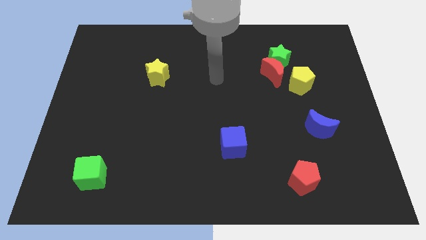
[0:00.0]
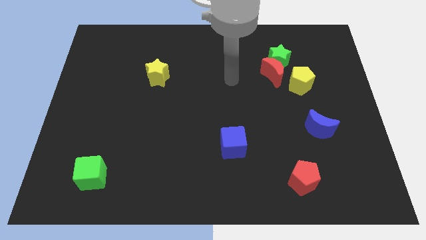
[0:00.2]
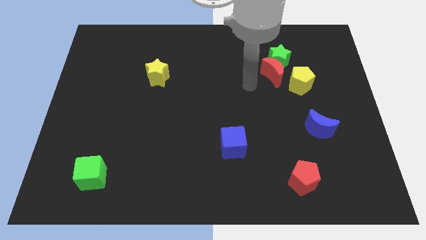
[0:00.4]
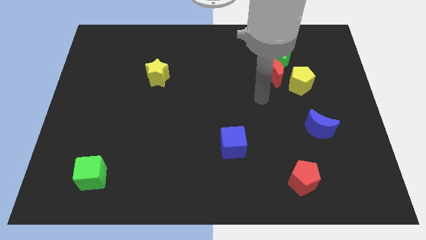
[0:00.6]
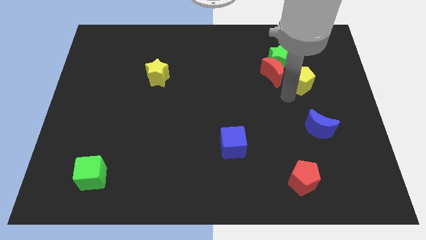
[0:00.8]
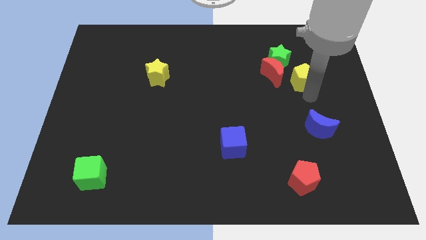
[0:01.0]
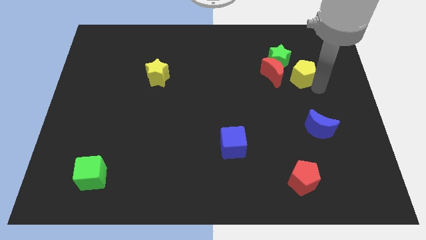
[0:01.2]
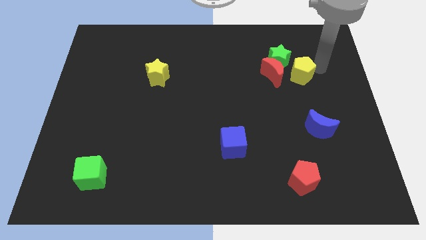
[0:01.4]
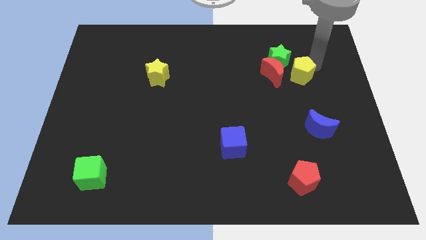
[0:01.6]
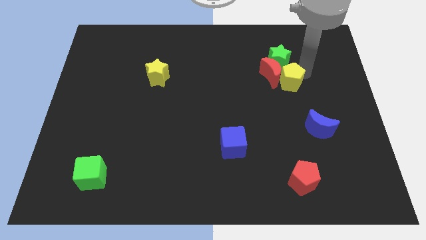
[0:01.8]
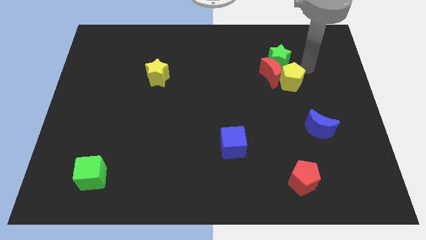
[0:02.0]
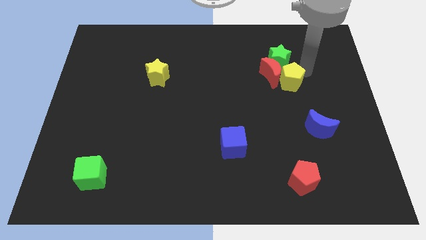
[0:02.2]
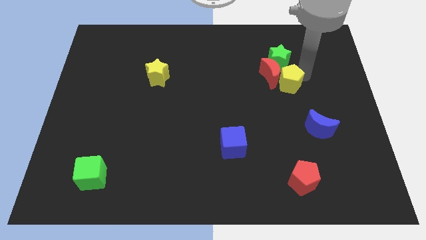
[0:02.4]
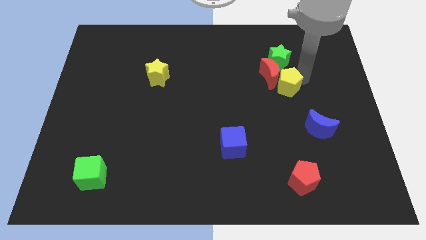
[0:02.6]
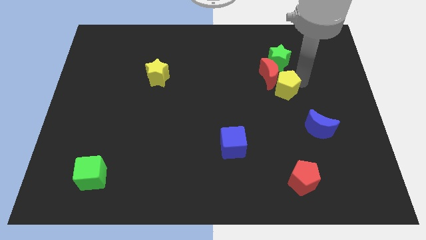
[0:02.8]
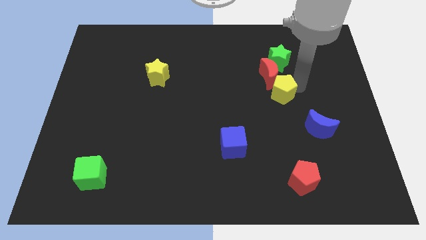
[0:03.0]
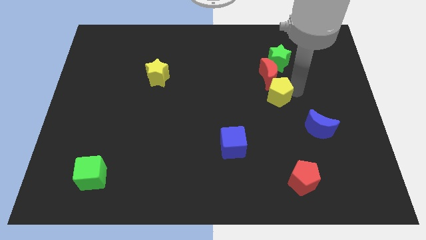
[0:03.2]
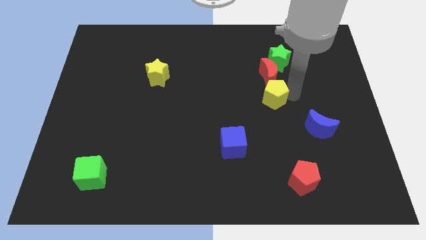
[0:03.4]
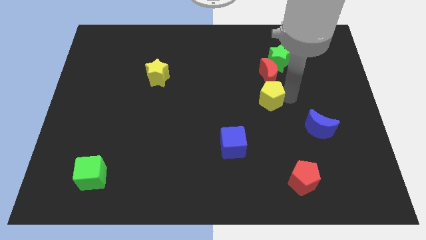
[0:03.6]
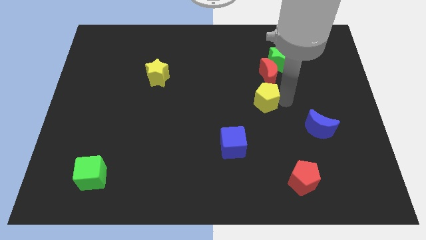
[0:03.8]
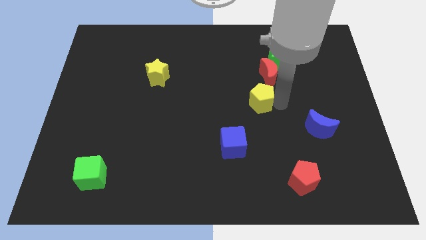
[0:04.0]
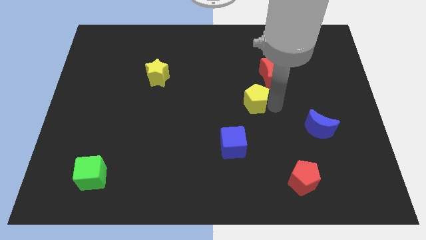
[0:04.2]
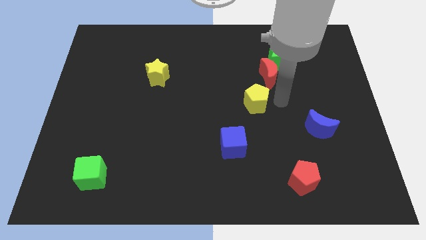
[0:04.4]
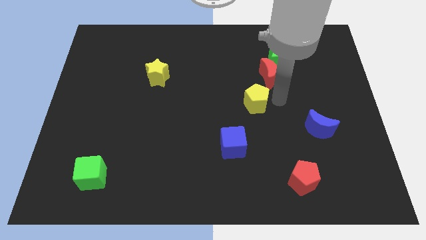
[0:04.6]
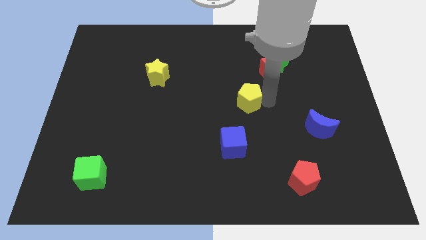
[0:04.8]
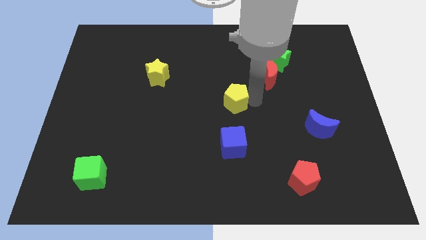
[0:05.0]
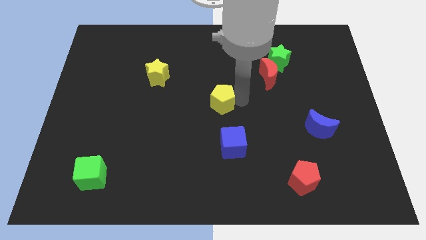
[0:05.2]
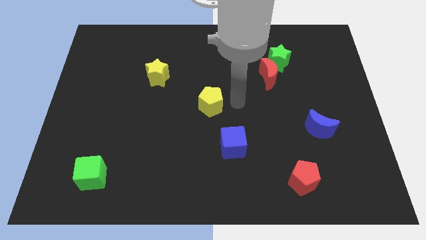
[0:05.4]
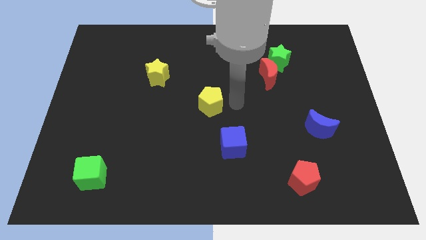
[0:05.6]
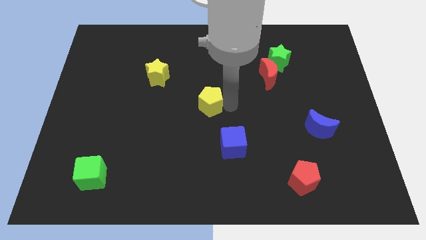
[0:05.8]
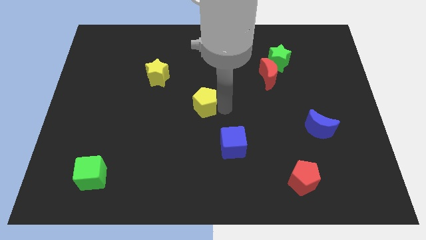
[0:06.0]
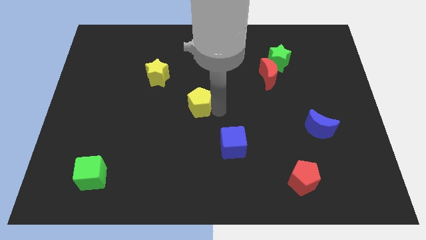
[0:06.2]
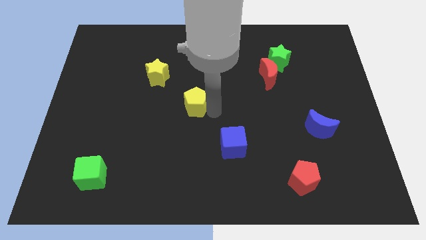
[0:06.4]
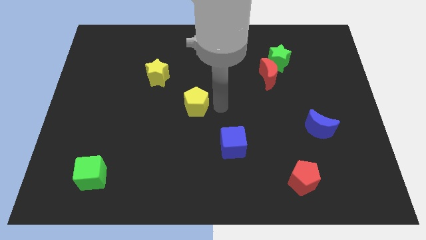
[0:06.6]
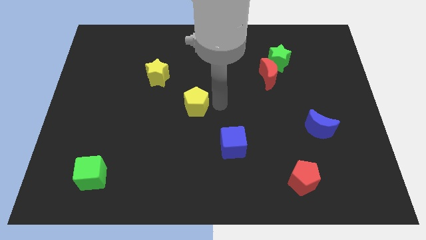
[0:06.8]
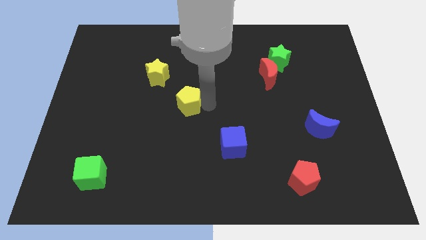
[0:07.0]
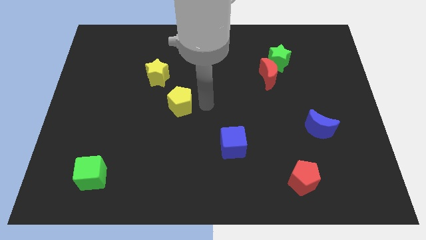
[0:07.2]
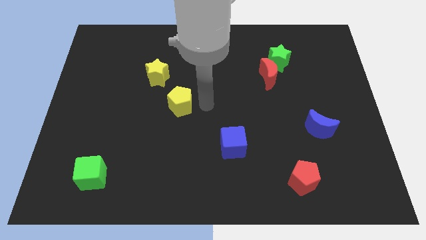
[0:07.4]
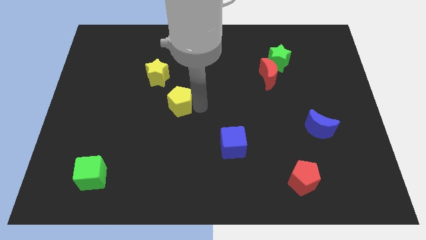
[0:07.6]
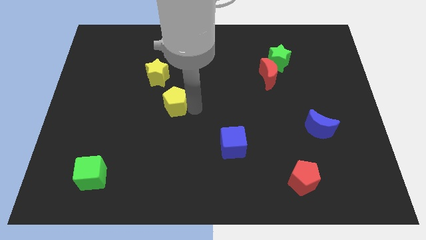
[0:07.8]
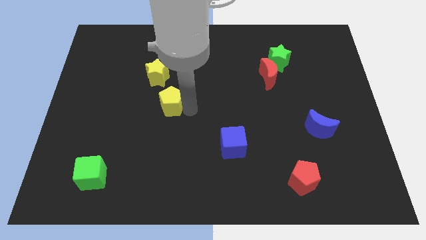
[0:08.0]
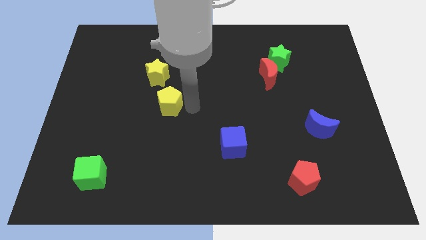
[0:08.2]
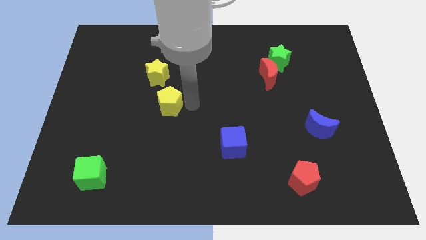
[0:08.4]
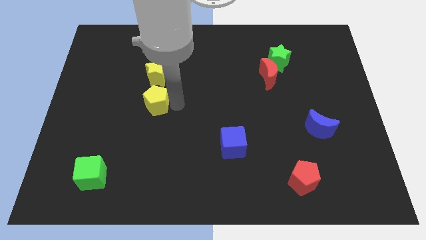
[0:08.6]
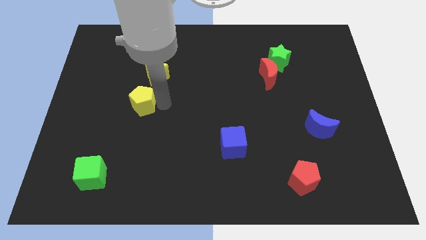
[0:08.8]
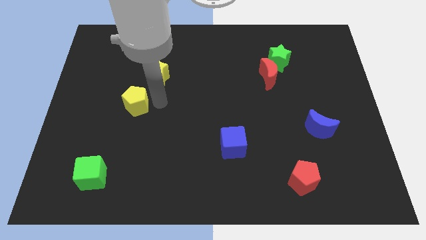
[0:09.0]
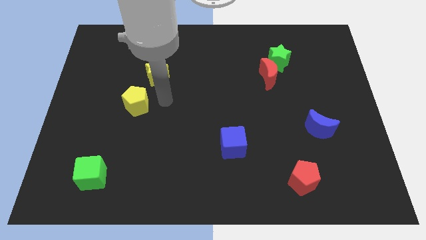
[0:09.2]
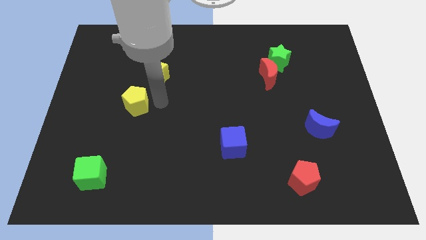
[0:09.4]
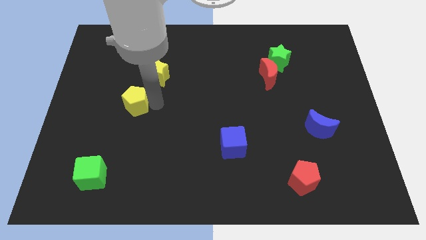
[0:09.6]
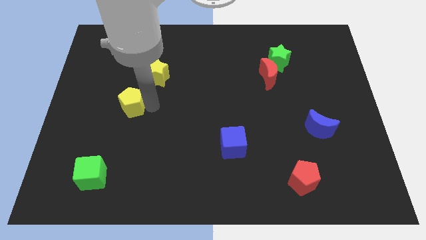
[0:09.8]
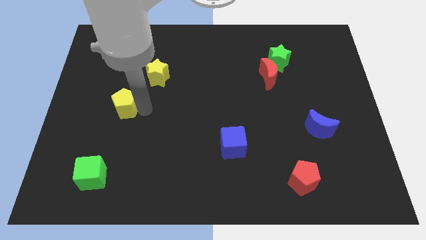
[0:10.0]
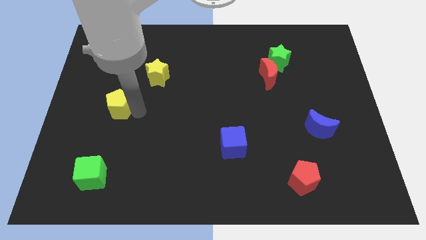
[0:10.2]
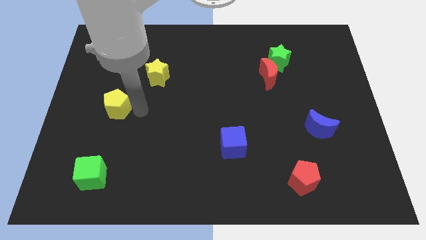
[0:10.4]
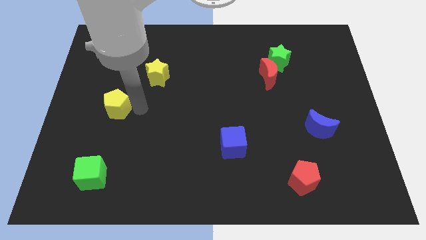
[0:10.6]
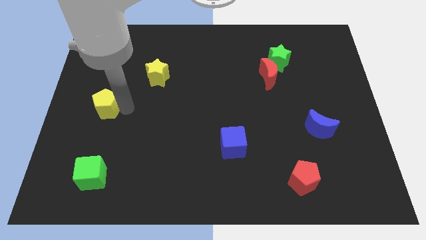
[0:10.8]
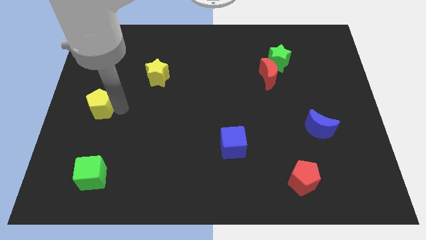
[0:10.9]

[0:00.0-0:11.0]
put the yellow pentagon to the left side

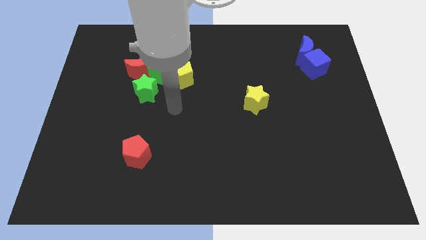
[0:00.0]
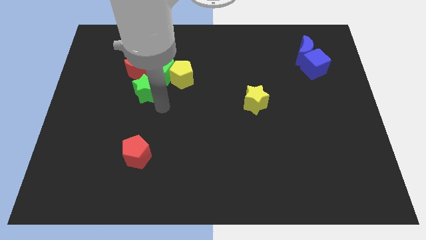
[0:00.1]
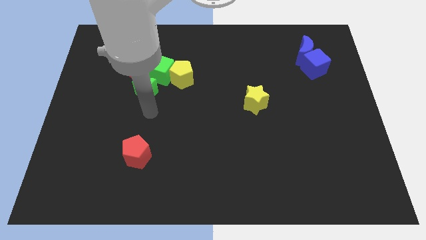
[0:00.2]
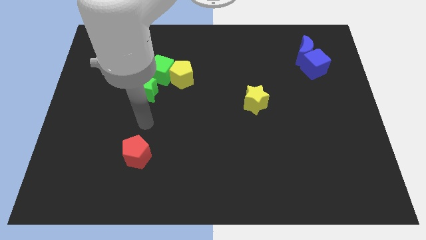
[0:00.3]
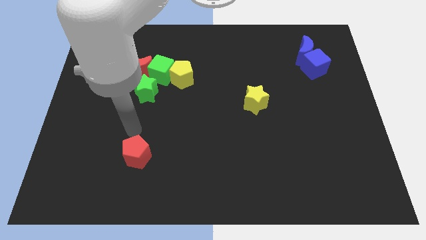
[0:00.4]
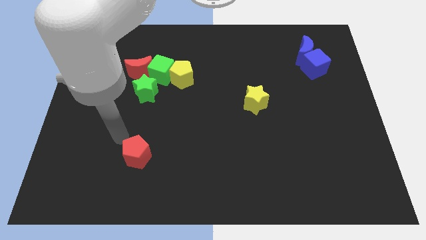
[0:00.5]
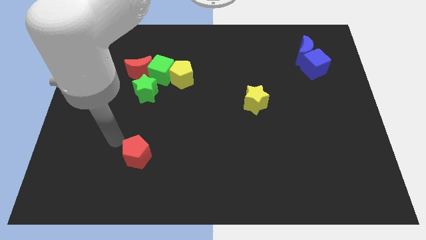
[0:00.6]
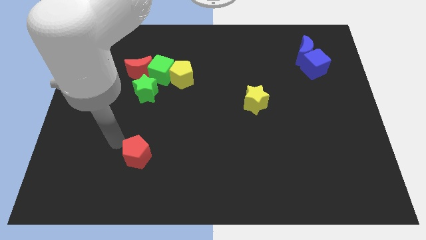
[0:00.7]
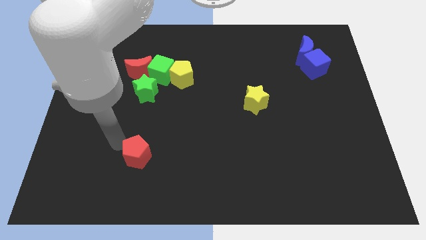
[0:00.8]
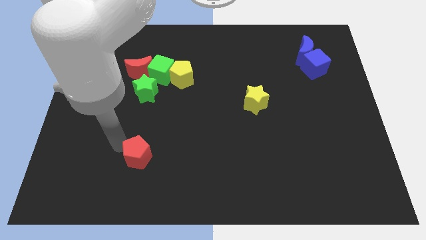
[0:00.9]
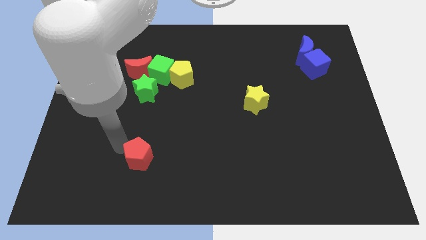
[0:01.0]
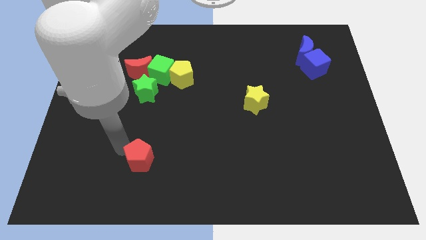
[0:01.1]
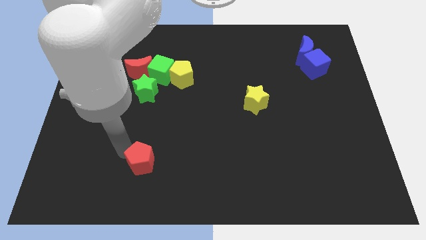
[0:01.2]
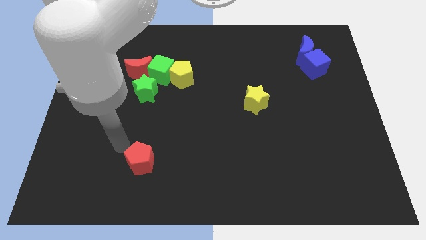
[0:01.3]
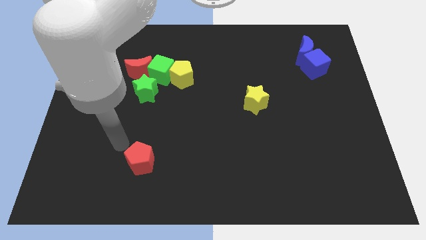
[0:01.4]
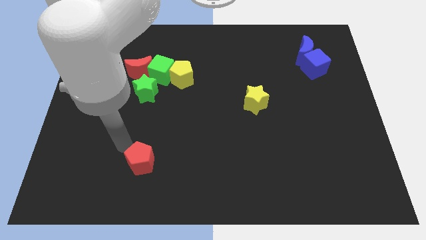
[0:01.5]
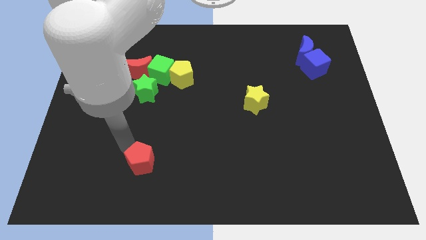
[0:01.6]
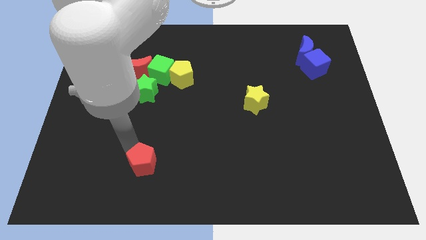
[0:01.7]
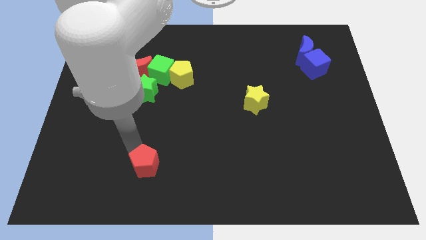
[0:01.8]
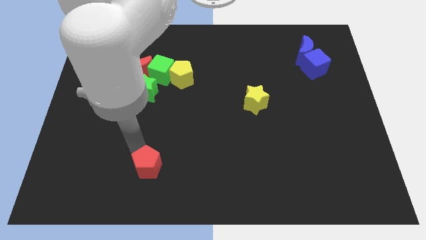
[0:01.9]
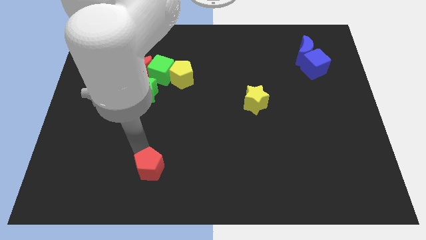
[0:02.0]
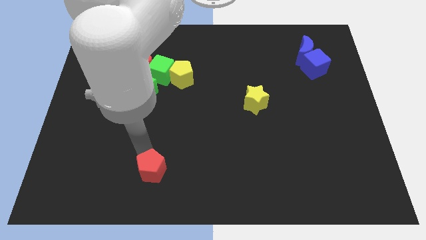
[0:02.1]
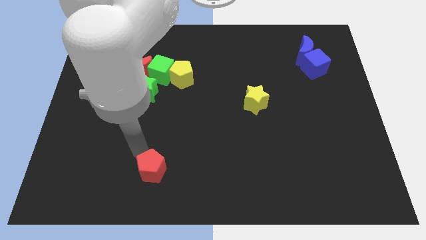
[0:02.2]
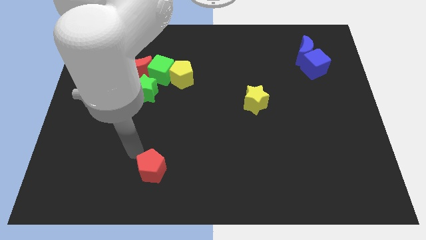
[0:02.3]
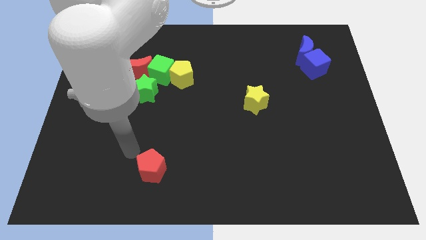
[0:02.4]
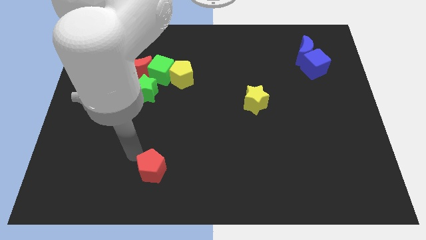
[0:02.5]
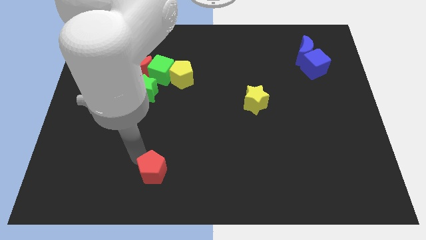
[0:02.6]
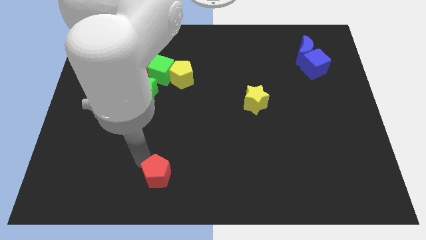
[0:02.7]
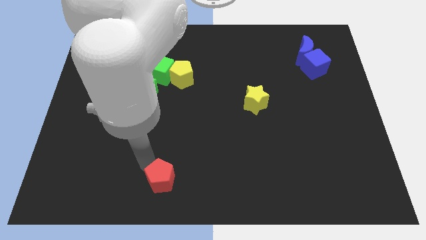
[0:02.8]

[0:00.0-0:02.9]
push the red pentagon to the bottom
